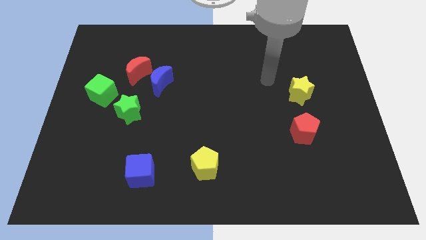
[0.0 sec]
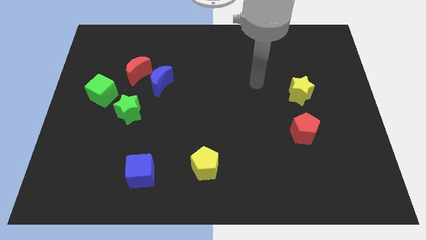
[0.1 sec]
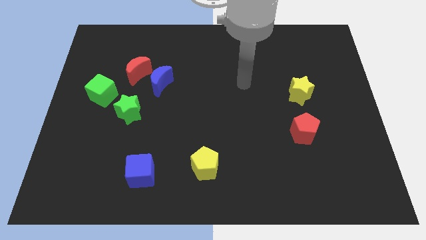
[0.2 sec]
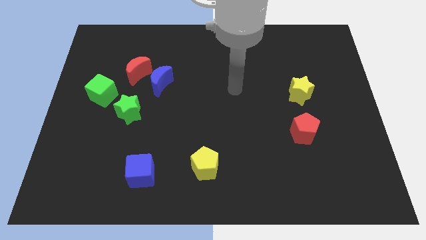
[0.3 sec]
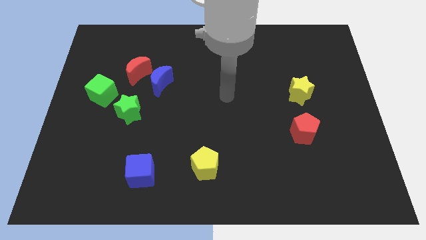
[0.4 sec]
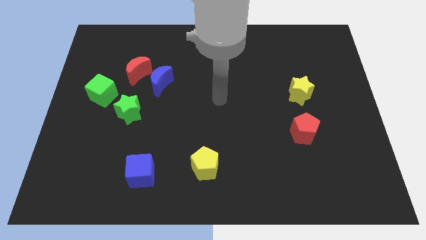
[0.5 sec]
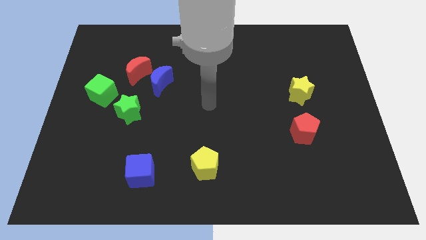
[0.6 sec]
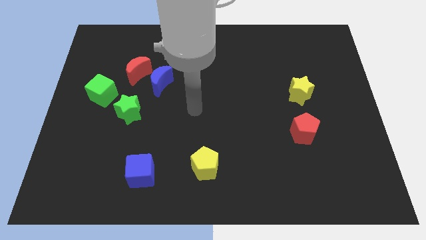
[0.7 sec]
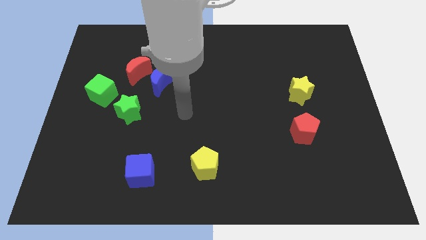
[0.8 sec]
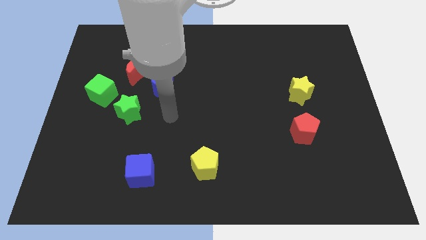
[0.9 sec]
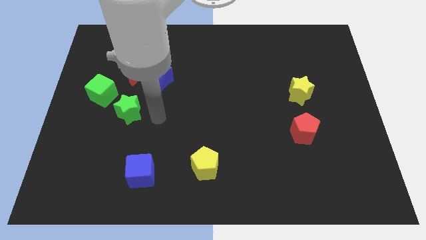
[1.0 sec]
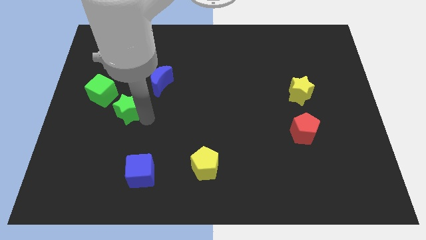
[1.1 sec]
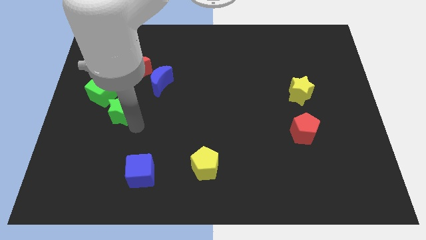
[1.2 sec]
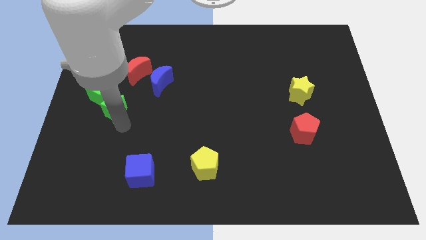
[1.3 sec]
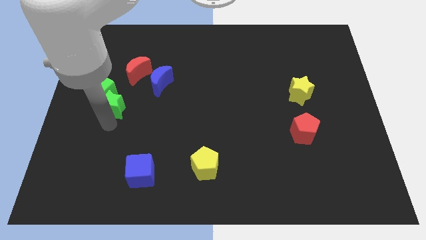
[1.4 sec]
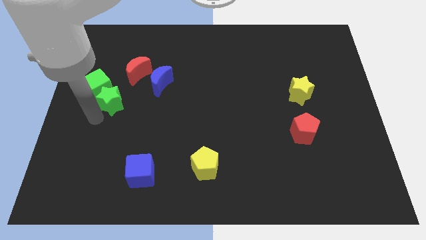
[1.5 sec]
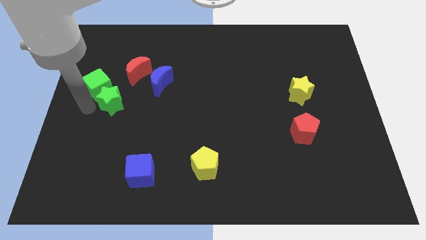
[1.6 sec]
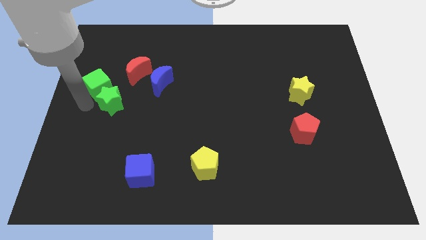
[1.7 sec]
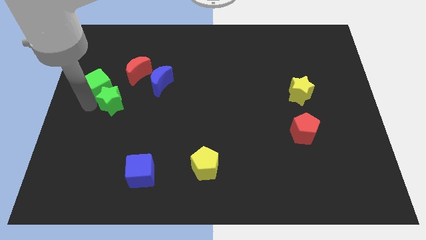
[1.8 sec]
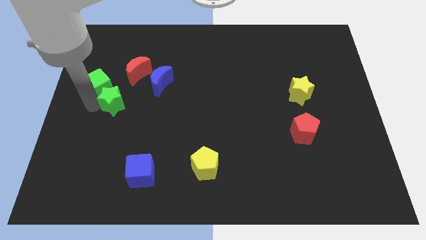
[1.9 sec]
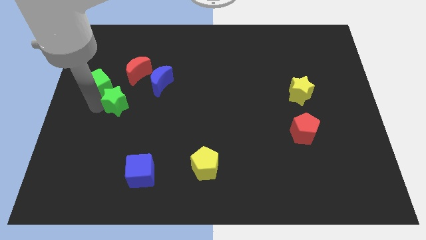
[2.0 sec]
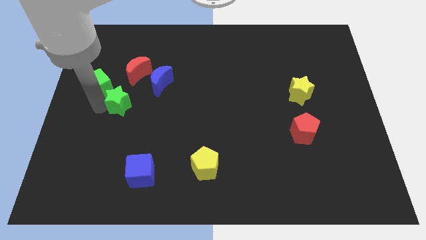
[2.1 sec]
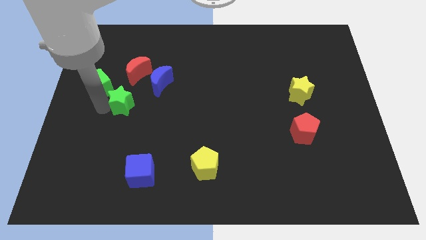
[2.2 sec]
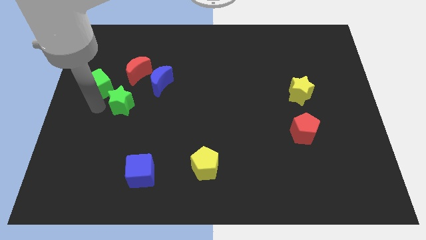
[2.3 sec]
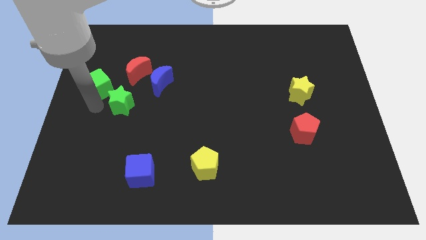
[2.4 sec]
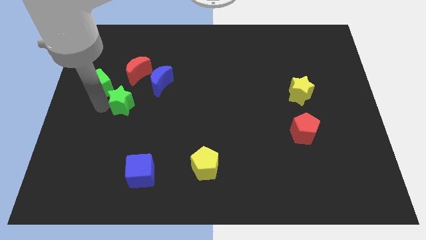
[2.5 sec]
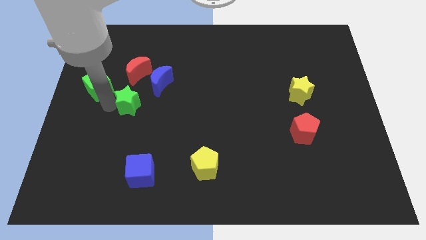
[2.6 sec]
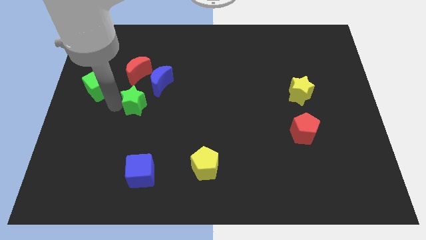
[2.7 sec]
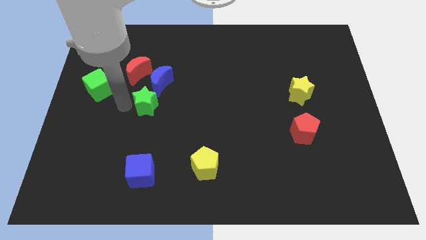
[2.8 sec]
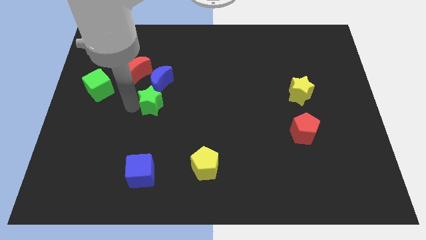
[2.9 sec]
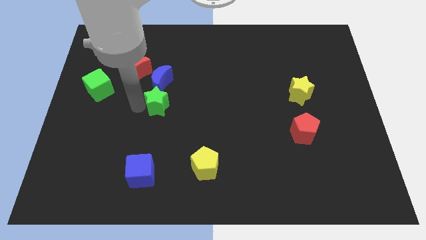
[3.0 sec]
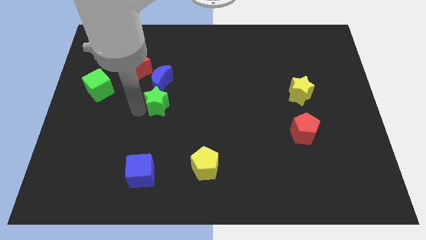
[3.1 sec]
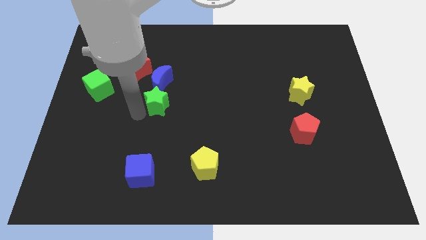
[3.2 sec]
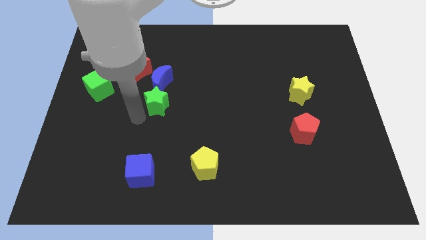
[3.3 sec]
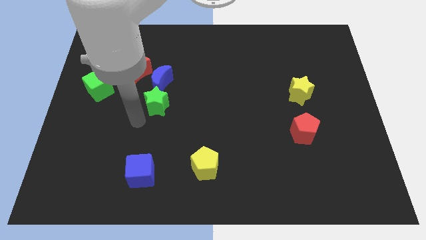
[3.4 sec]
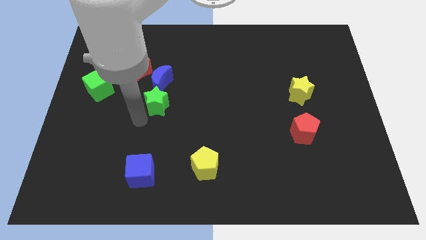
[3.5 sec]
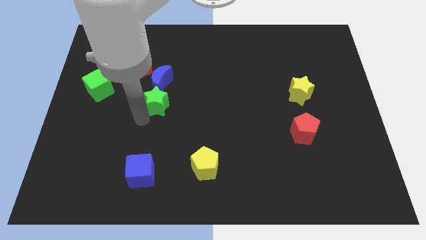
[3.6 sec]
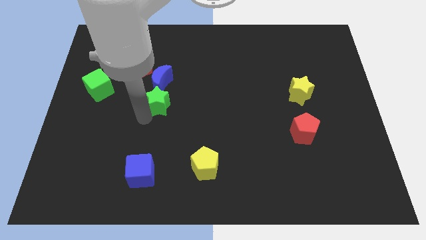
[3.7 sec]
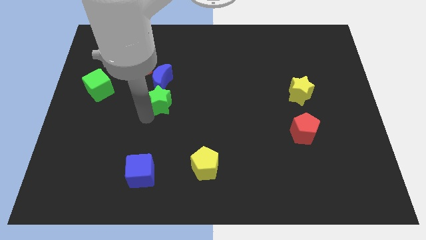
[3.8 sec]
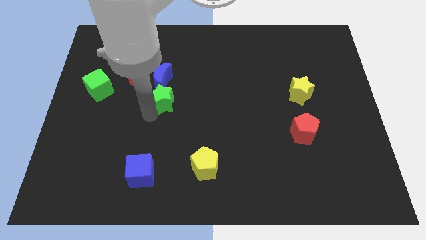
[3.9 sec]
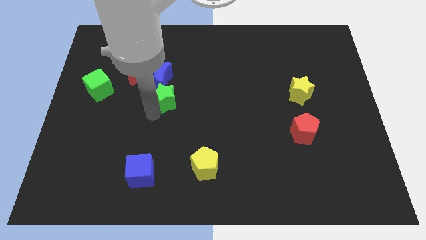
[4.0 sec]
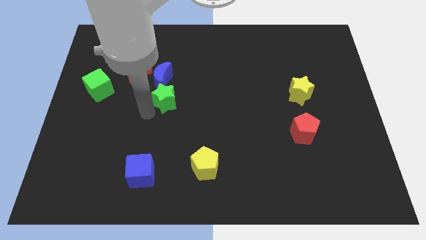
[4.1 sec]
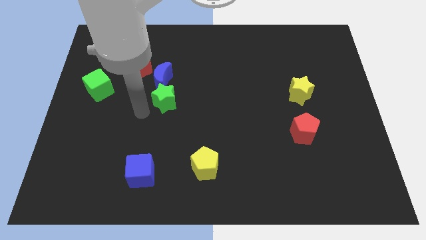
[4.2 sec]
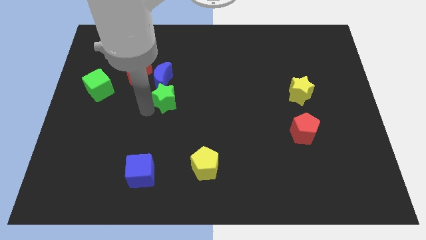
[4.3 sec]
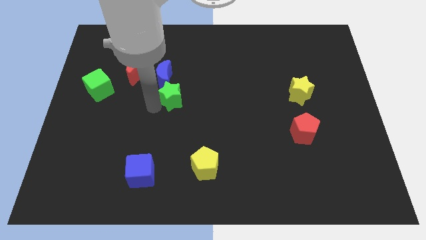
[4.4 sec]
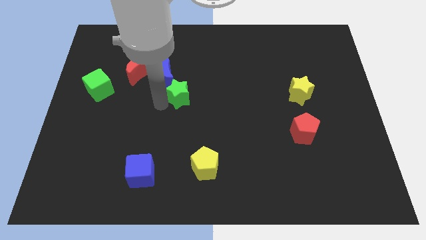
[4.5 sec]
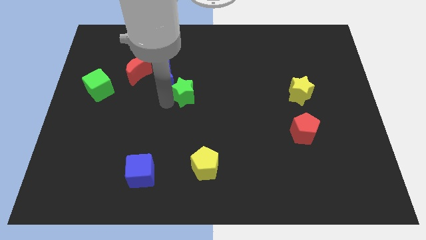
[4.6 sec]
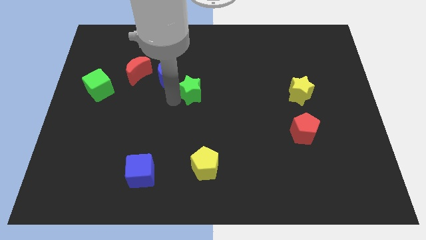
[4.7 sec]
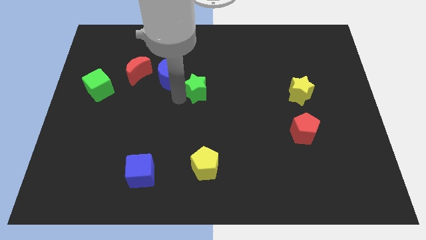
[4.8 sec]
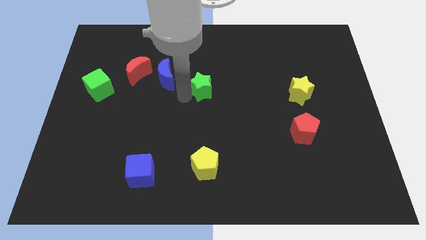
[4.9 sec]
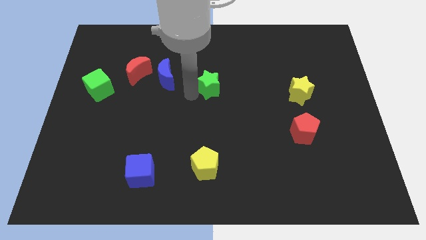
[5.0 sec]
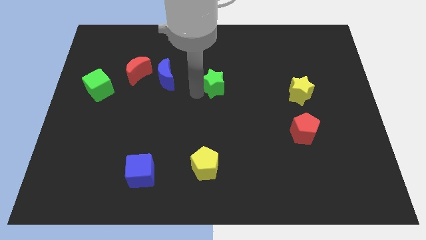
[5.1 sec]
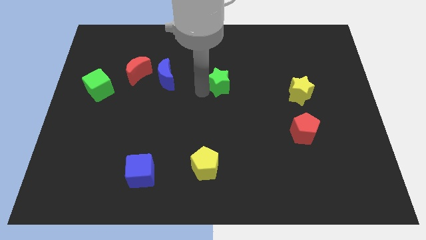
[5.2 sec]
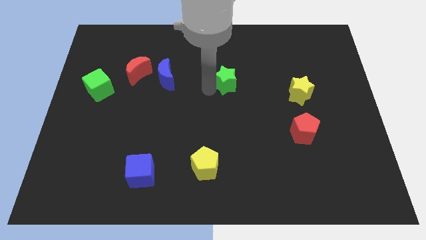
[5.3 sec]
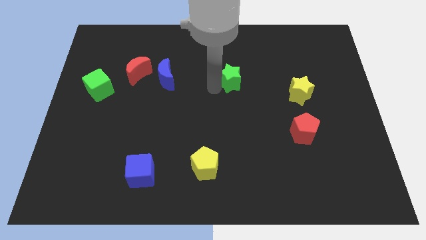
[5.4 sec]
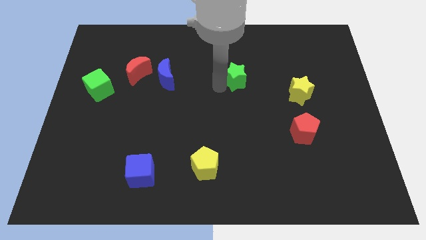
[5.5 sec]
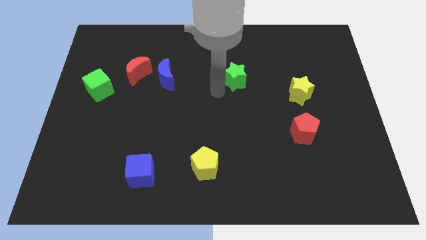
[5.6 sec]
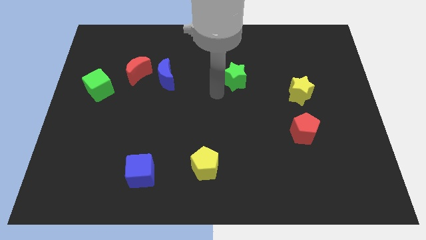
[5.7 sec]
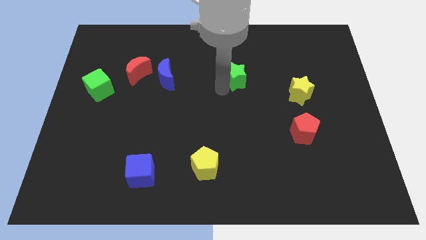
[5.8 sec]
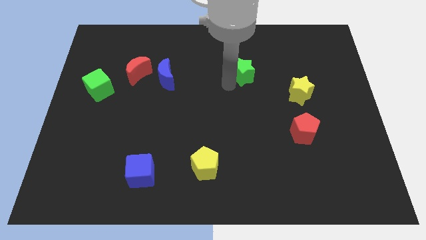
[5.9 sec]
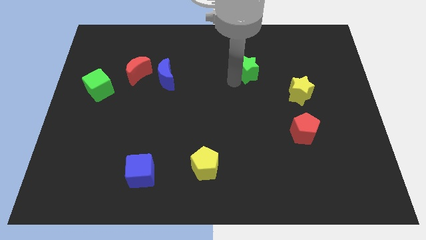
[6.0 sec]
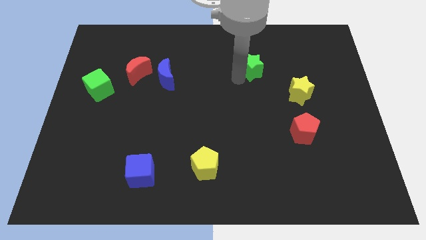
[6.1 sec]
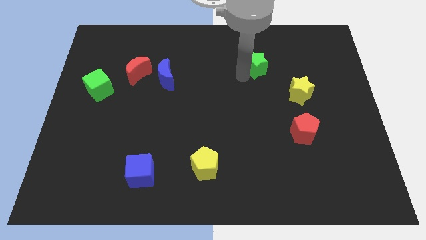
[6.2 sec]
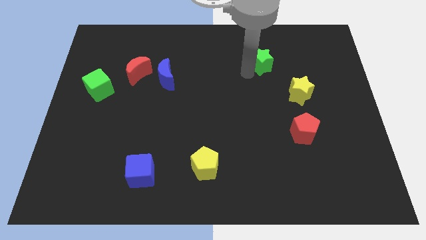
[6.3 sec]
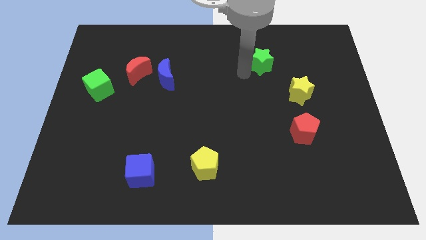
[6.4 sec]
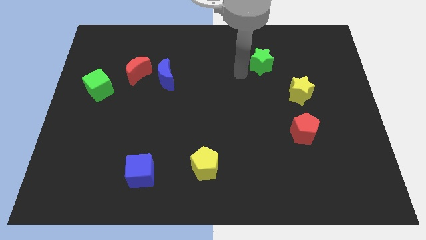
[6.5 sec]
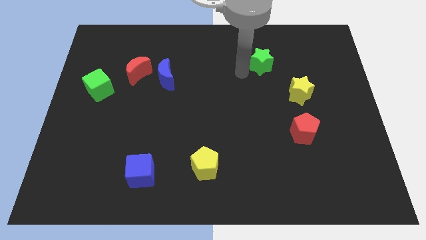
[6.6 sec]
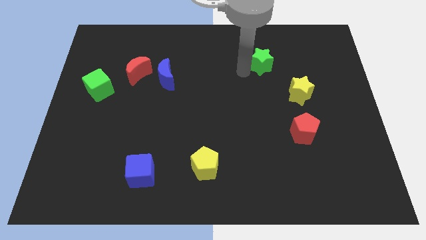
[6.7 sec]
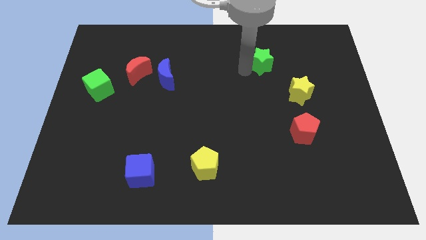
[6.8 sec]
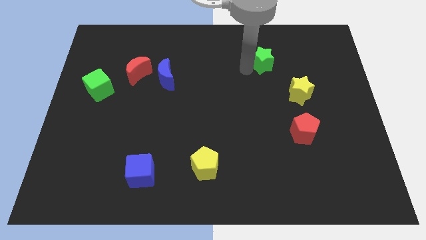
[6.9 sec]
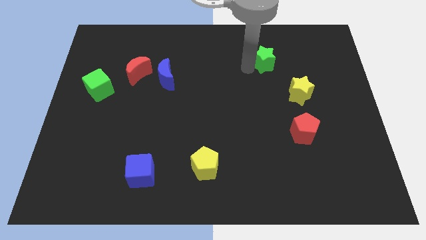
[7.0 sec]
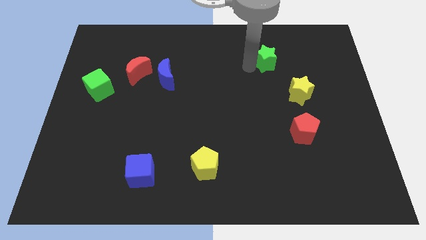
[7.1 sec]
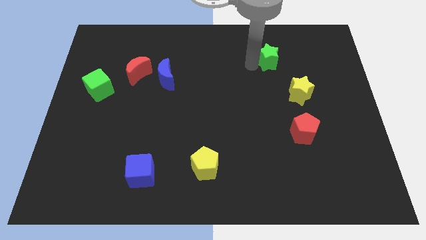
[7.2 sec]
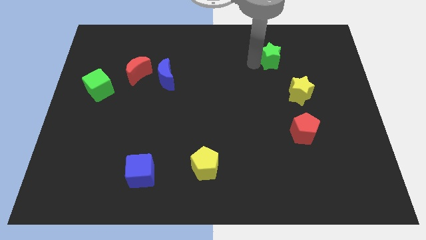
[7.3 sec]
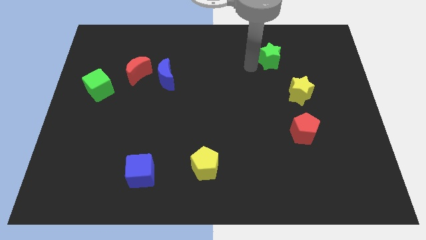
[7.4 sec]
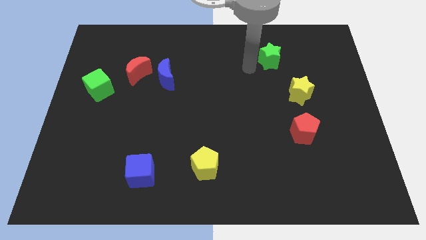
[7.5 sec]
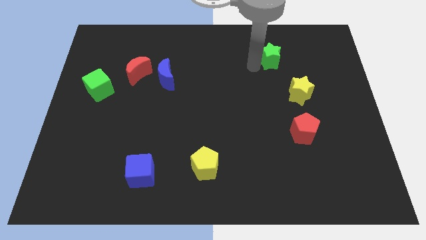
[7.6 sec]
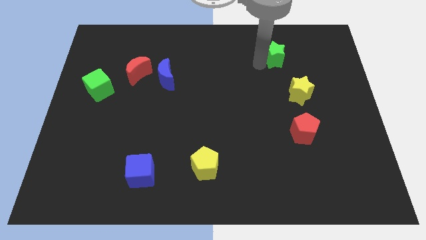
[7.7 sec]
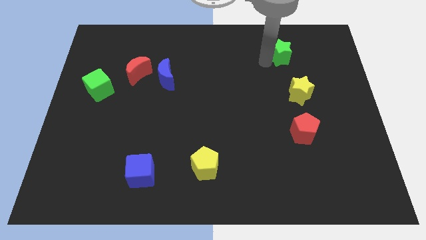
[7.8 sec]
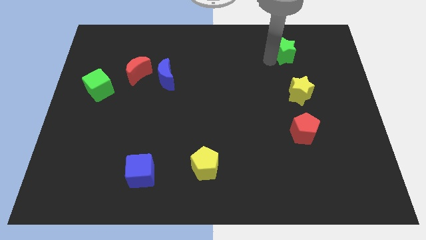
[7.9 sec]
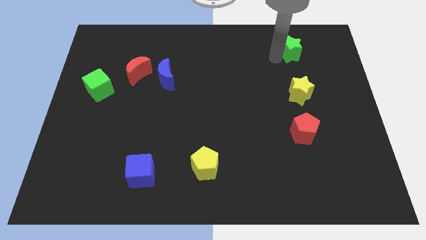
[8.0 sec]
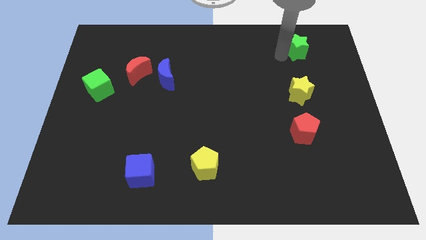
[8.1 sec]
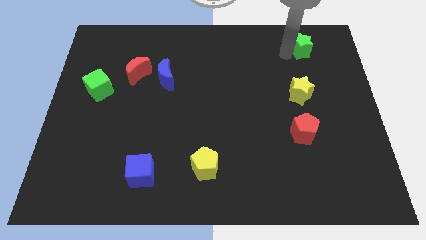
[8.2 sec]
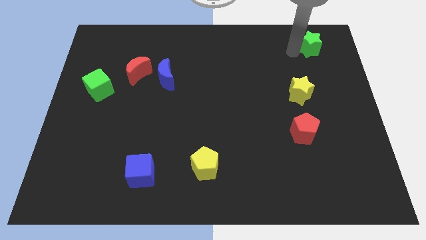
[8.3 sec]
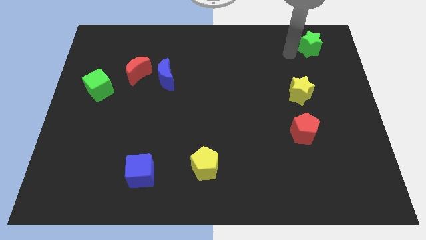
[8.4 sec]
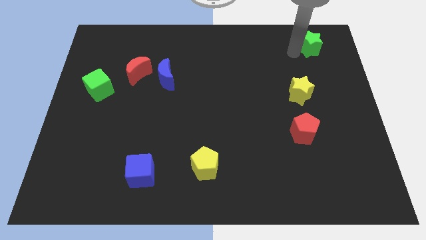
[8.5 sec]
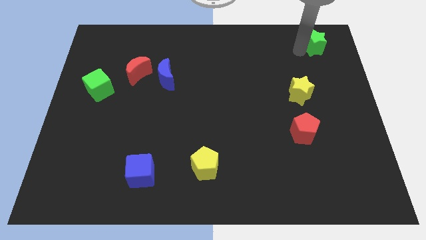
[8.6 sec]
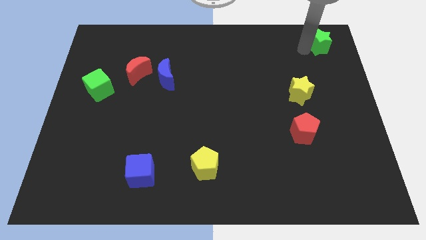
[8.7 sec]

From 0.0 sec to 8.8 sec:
slide the green star to the upper right corner
